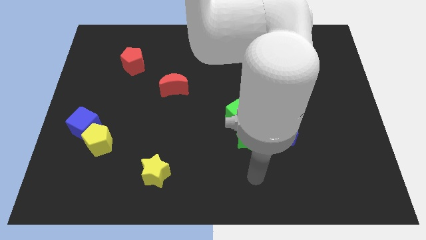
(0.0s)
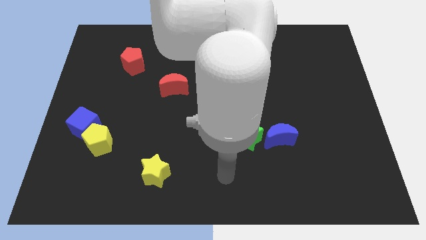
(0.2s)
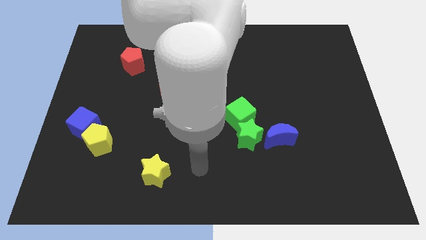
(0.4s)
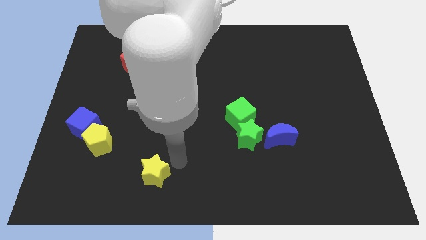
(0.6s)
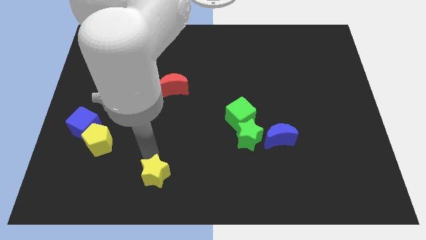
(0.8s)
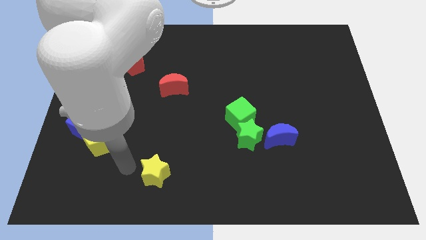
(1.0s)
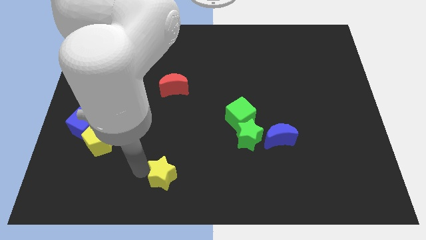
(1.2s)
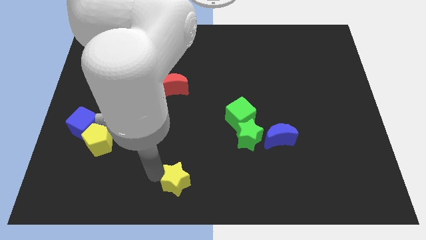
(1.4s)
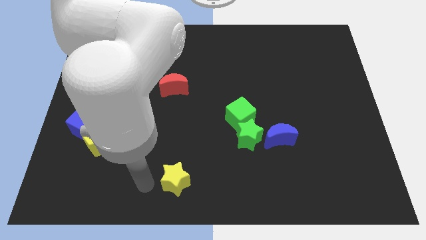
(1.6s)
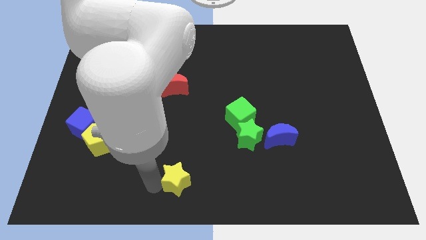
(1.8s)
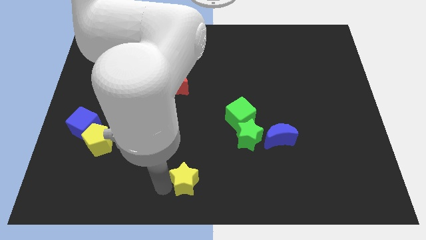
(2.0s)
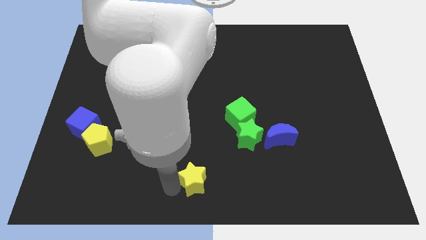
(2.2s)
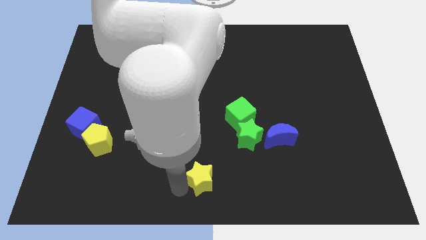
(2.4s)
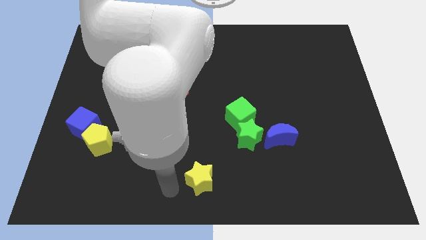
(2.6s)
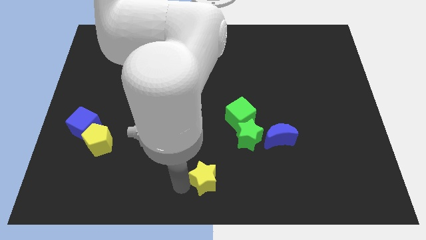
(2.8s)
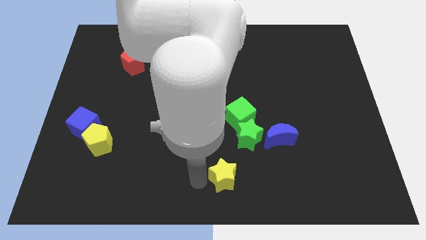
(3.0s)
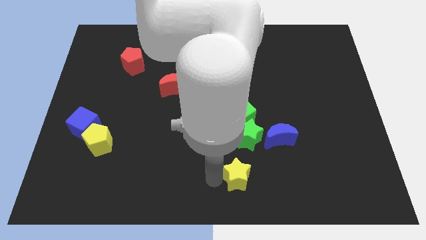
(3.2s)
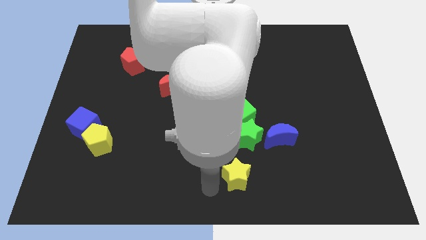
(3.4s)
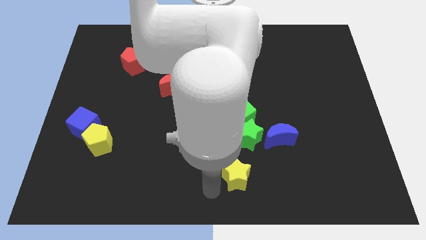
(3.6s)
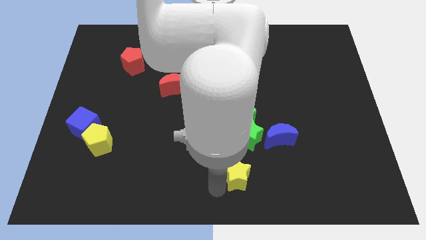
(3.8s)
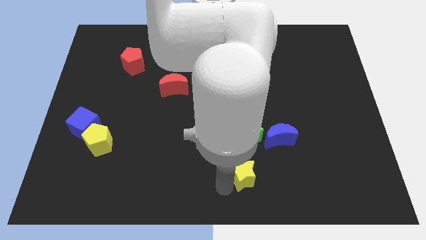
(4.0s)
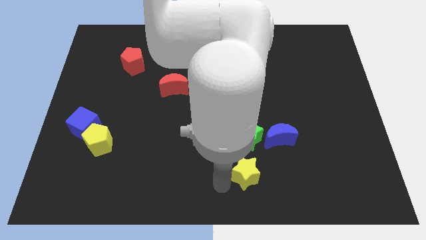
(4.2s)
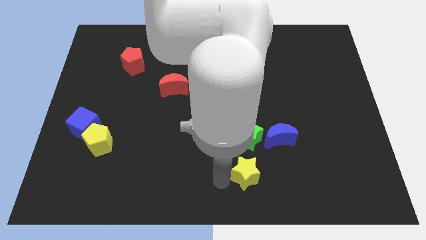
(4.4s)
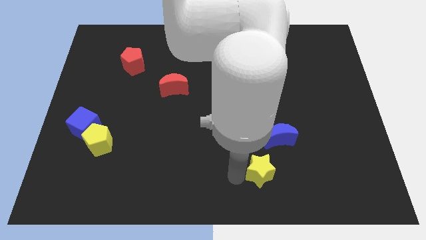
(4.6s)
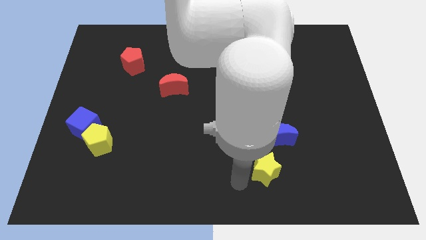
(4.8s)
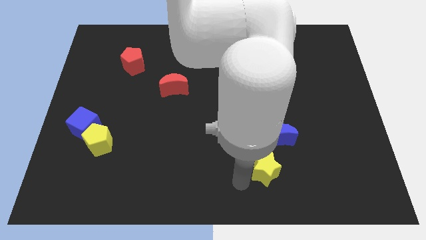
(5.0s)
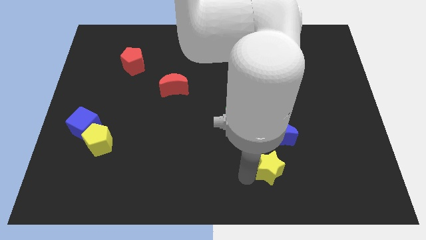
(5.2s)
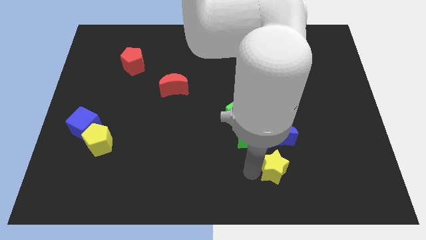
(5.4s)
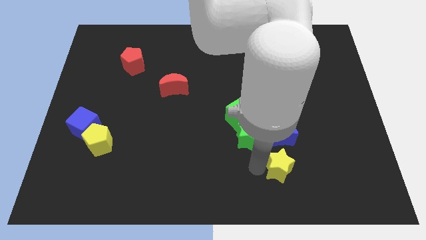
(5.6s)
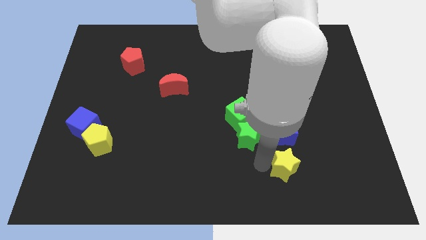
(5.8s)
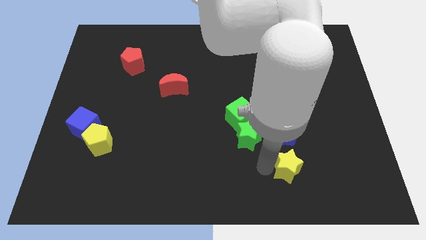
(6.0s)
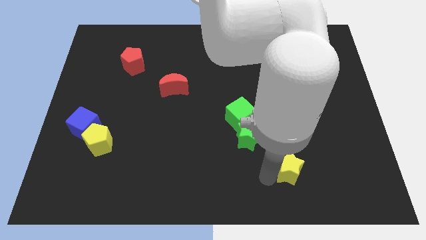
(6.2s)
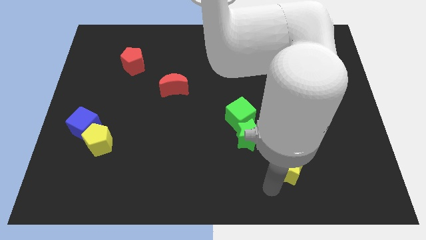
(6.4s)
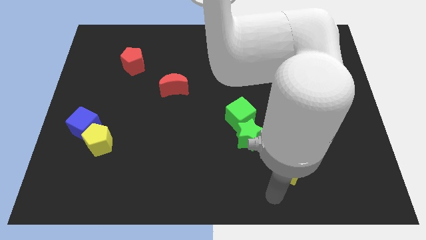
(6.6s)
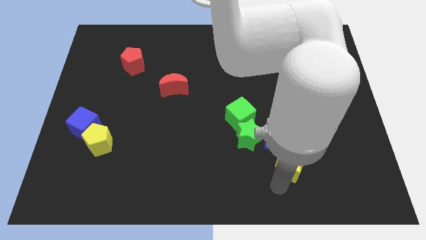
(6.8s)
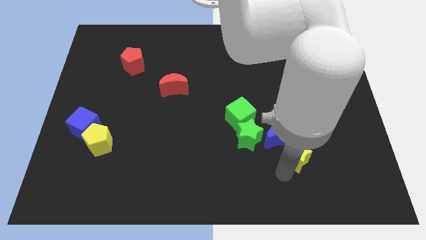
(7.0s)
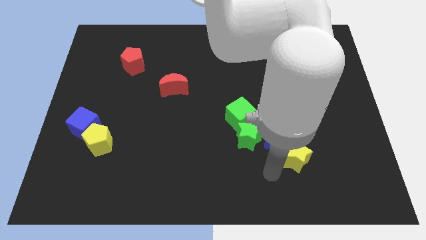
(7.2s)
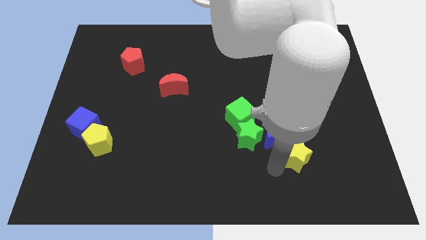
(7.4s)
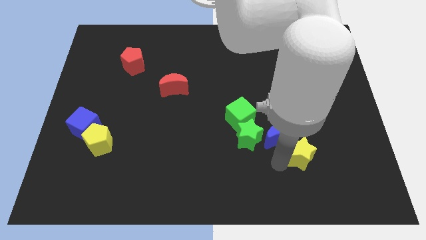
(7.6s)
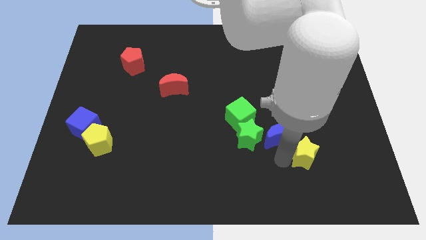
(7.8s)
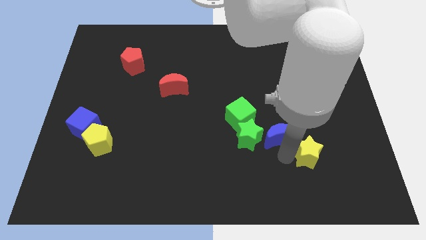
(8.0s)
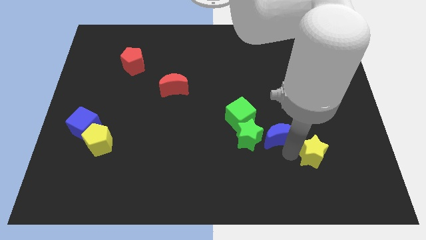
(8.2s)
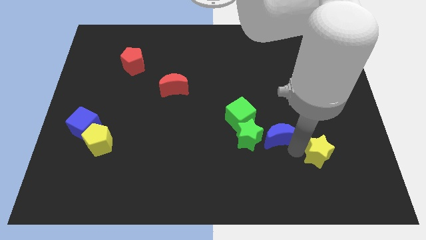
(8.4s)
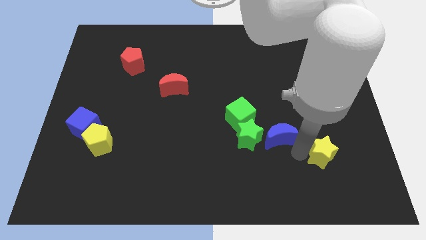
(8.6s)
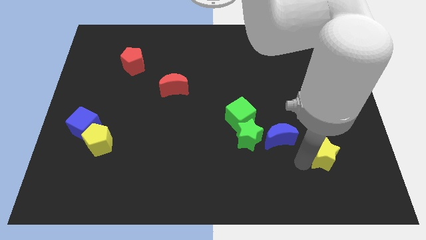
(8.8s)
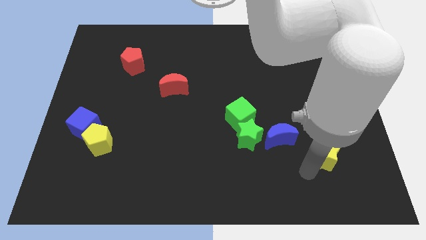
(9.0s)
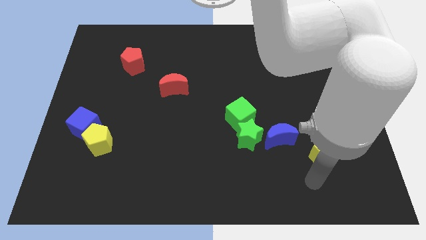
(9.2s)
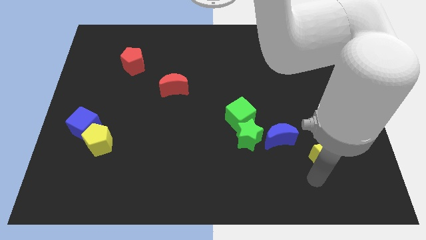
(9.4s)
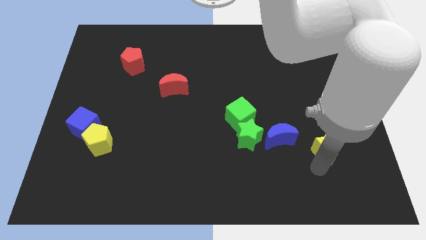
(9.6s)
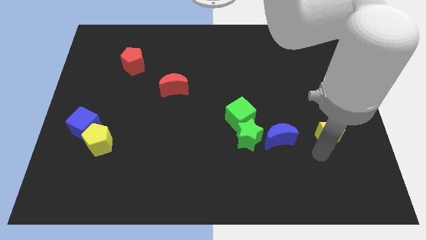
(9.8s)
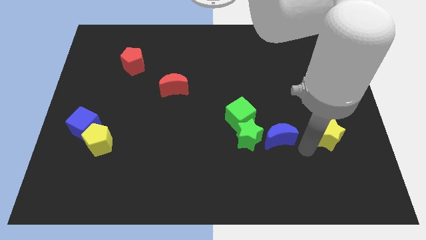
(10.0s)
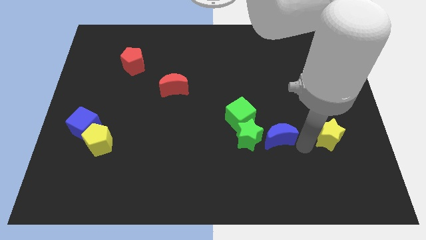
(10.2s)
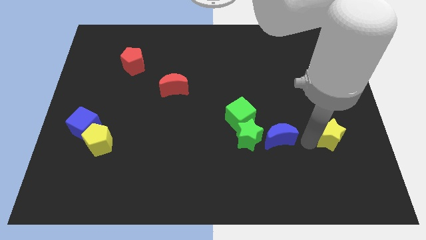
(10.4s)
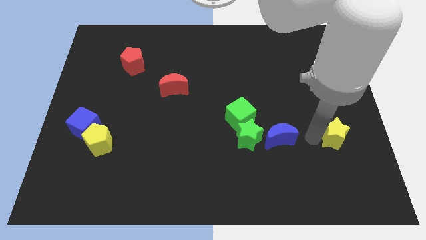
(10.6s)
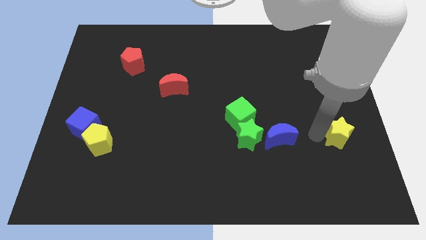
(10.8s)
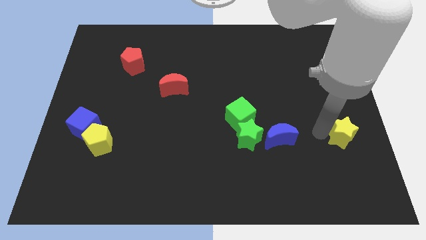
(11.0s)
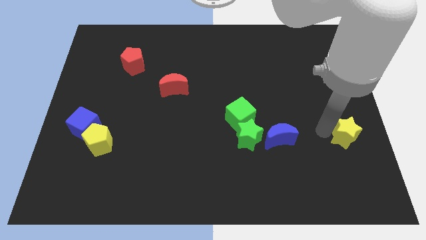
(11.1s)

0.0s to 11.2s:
slide the yellow star to the right side

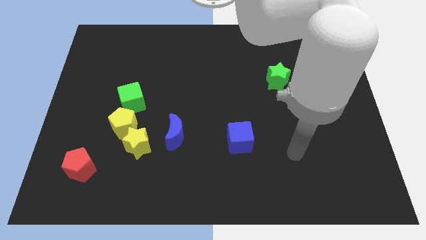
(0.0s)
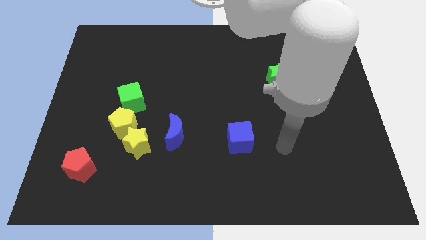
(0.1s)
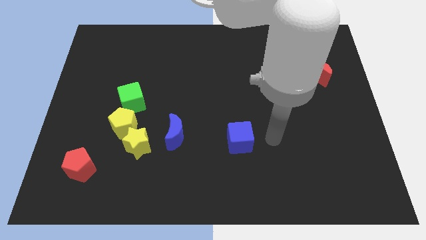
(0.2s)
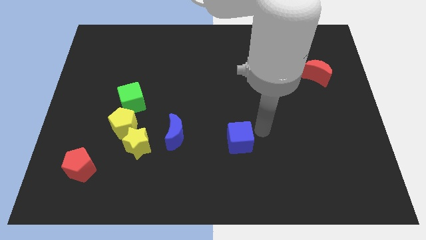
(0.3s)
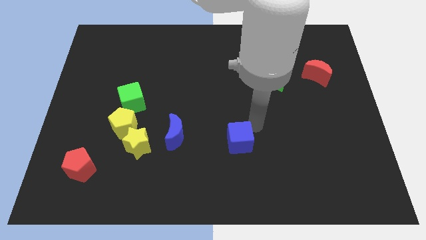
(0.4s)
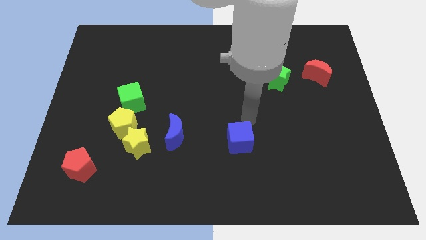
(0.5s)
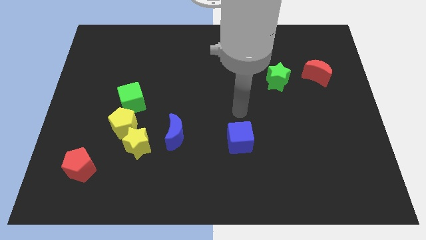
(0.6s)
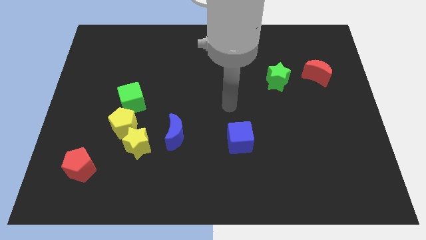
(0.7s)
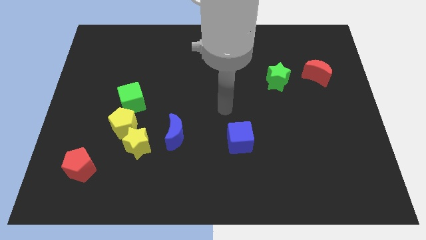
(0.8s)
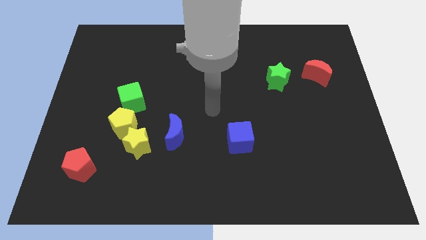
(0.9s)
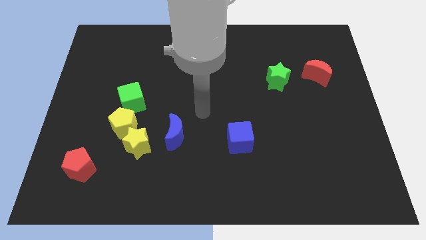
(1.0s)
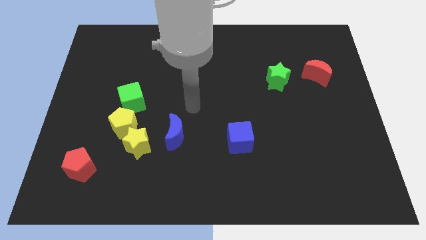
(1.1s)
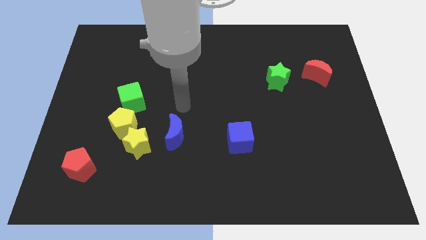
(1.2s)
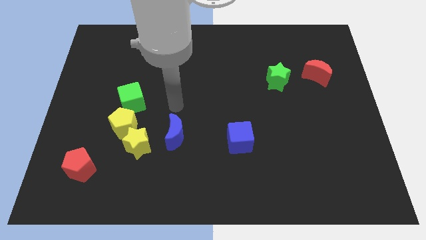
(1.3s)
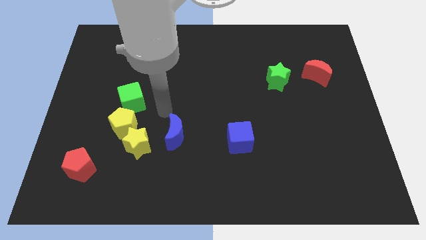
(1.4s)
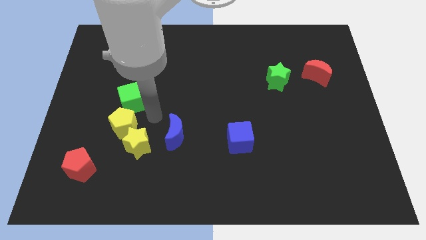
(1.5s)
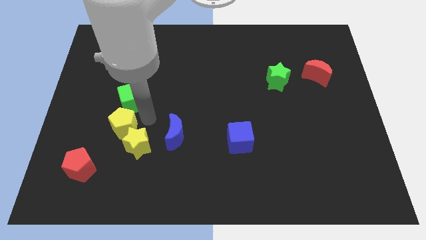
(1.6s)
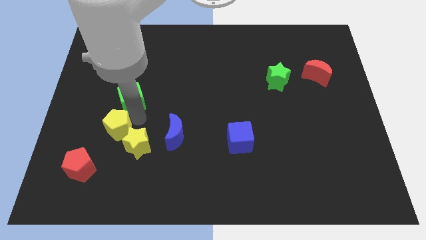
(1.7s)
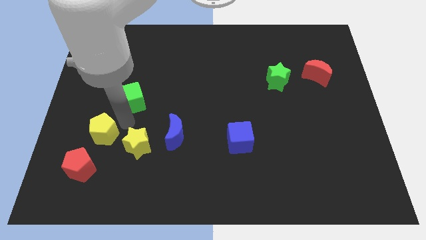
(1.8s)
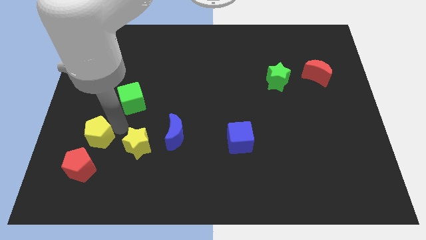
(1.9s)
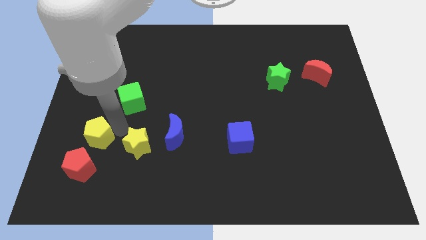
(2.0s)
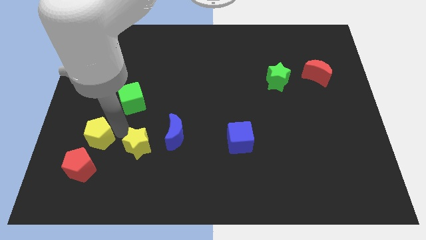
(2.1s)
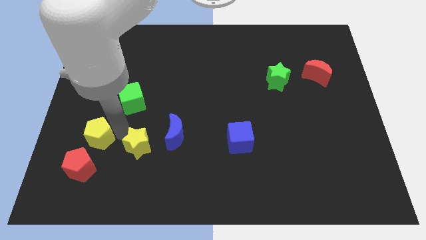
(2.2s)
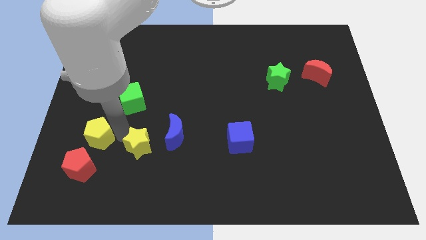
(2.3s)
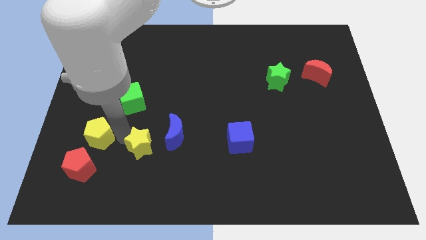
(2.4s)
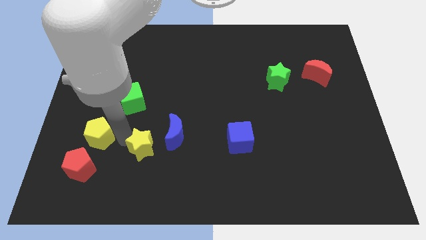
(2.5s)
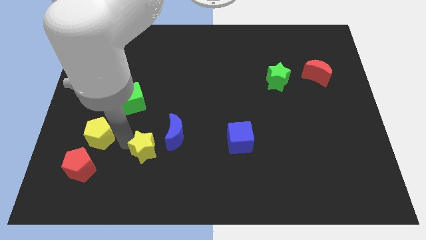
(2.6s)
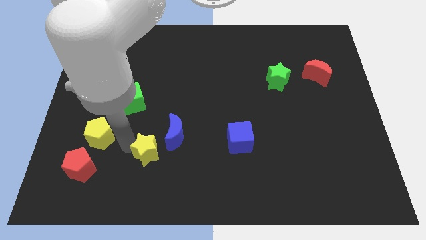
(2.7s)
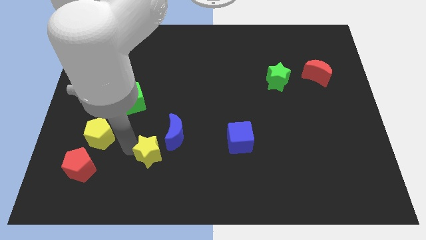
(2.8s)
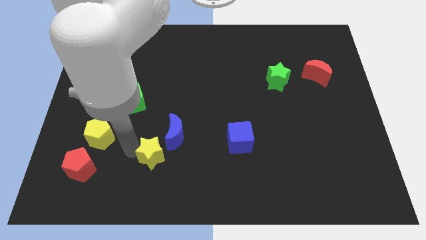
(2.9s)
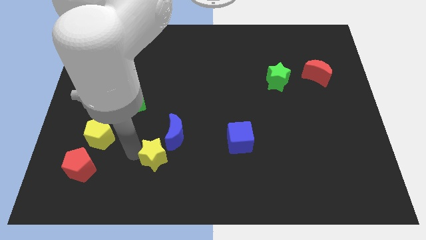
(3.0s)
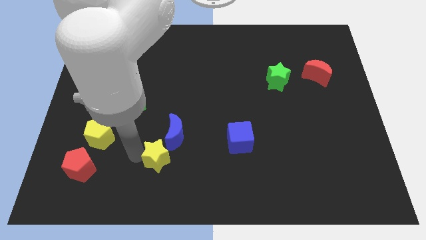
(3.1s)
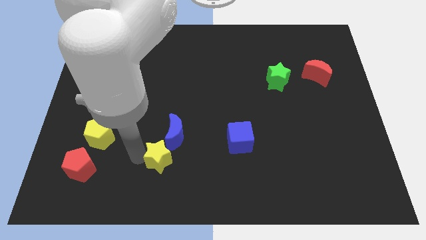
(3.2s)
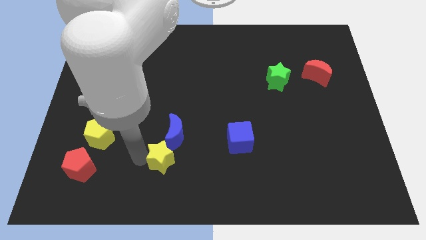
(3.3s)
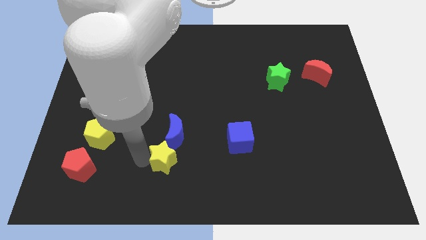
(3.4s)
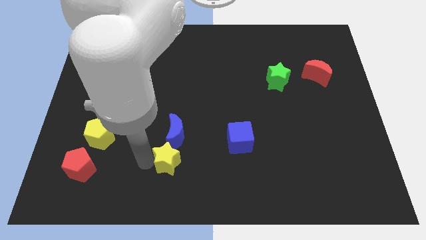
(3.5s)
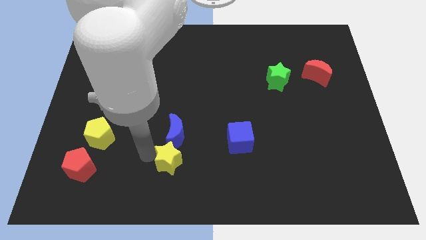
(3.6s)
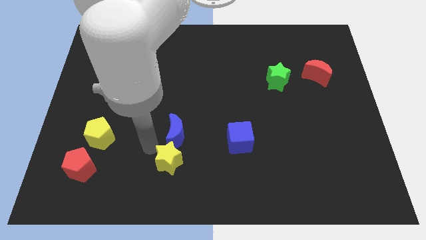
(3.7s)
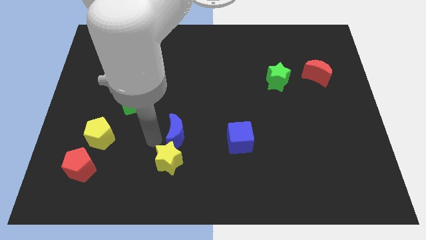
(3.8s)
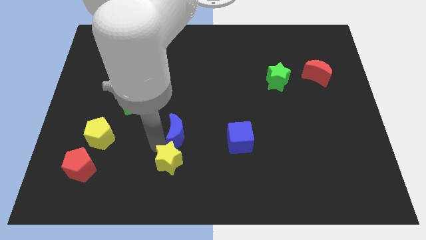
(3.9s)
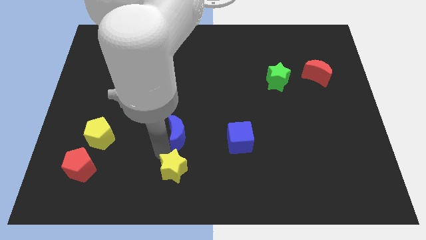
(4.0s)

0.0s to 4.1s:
move the yellow star to the bottom side
